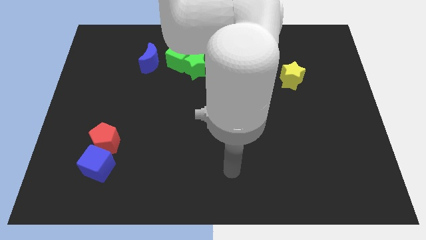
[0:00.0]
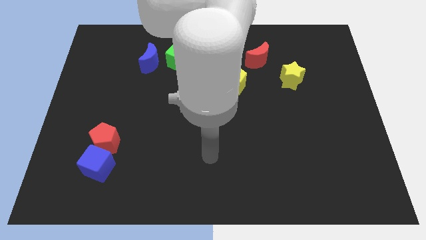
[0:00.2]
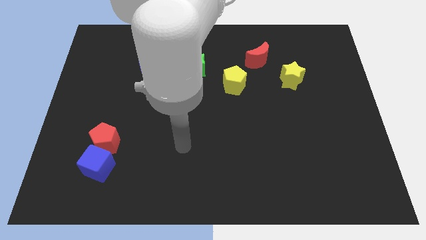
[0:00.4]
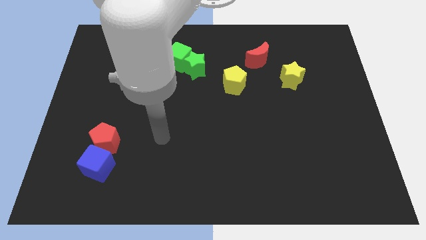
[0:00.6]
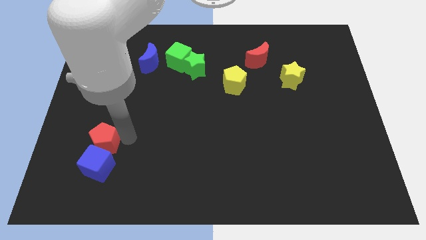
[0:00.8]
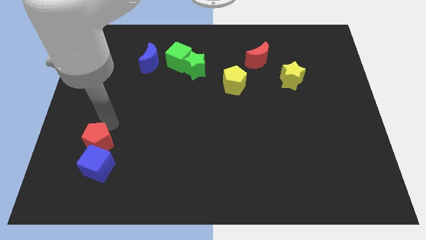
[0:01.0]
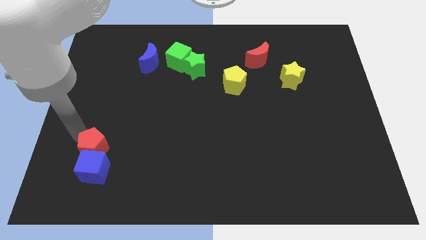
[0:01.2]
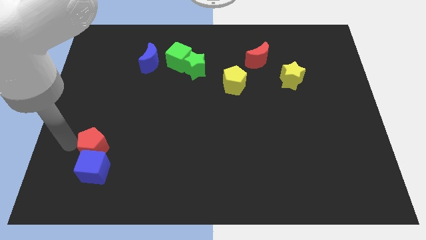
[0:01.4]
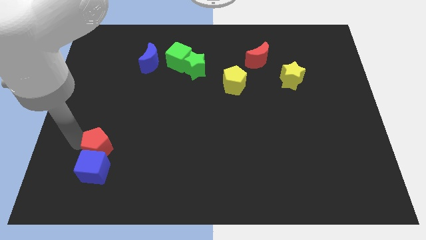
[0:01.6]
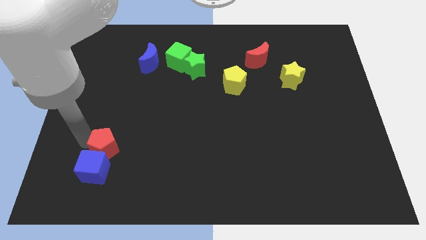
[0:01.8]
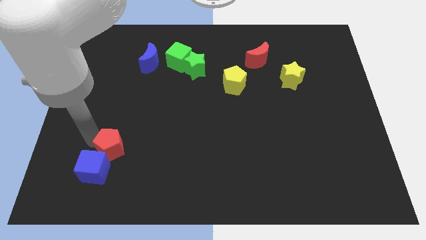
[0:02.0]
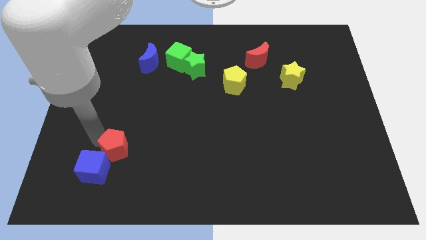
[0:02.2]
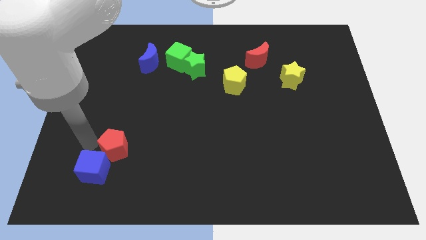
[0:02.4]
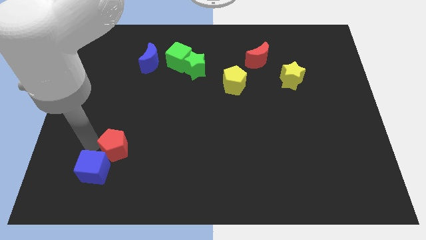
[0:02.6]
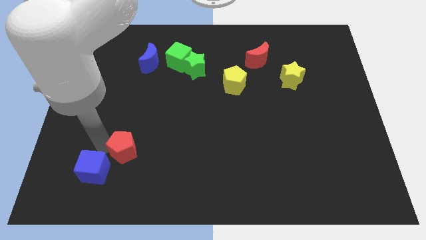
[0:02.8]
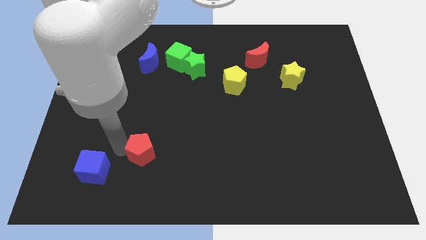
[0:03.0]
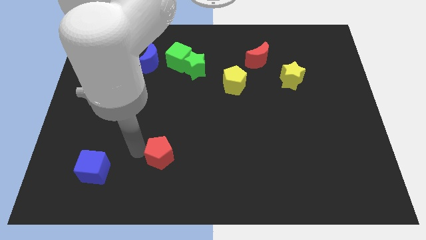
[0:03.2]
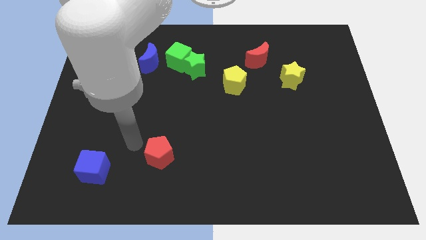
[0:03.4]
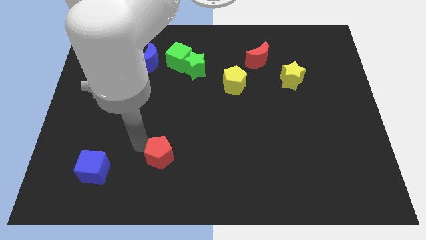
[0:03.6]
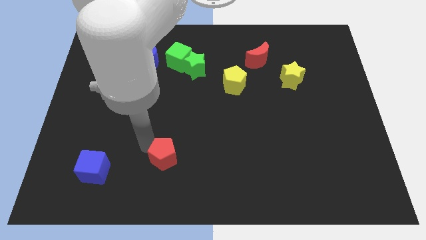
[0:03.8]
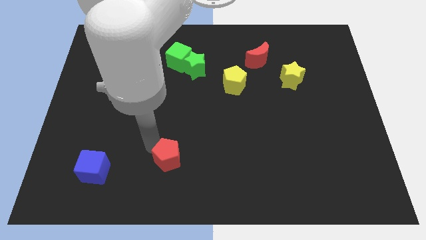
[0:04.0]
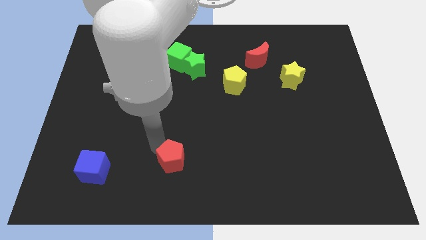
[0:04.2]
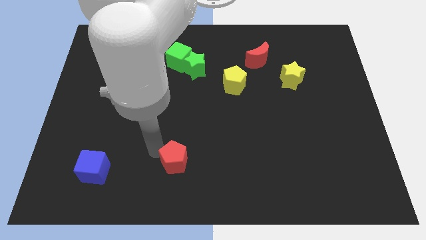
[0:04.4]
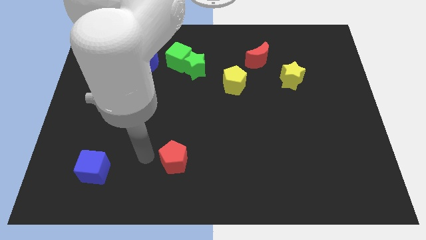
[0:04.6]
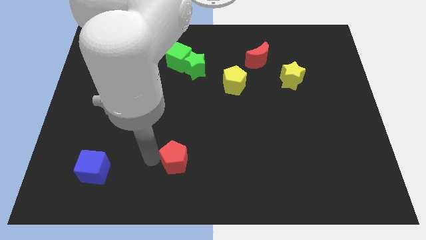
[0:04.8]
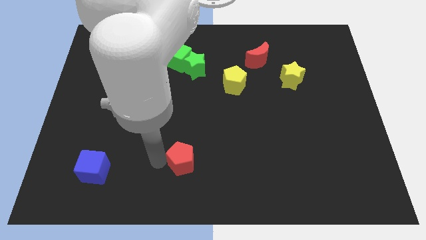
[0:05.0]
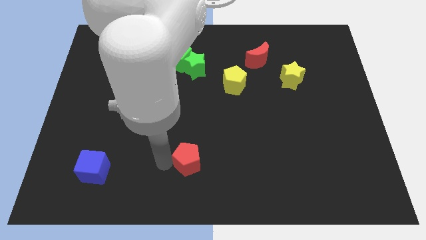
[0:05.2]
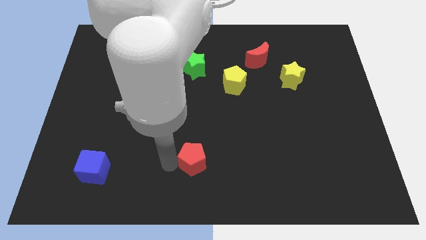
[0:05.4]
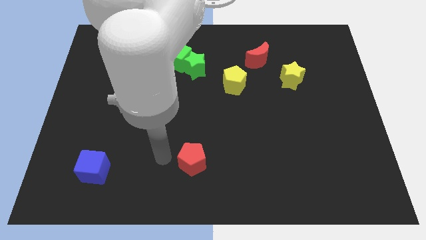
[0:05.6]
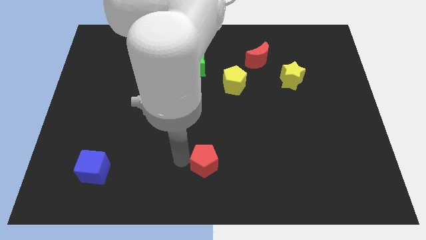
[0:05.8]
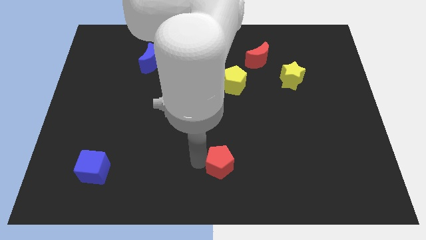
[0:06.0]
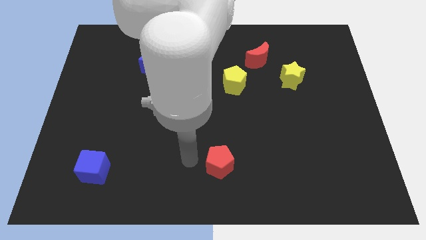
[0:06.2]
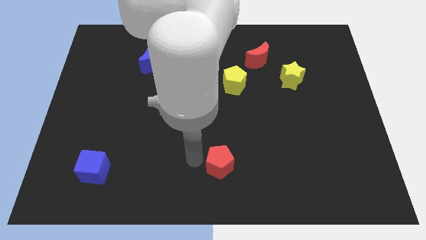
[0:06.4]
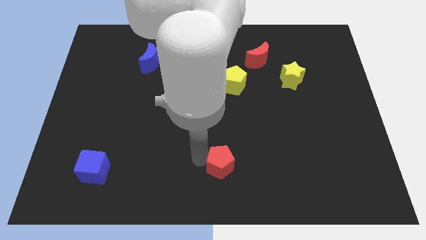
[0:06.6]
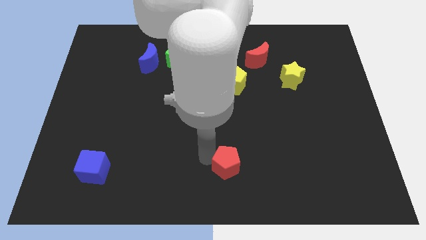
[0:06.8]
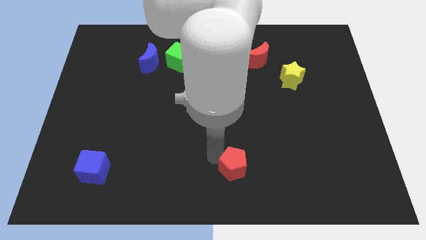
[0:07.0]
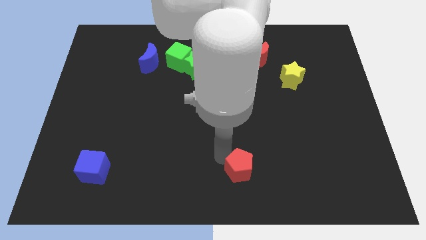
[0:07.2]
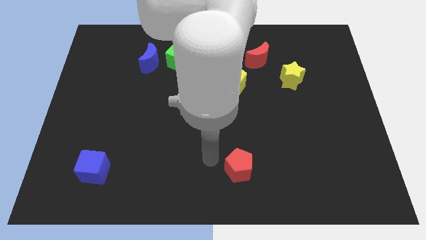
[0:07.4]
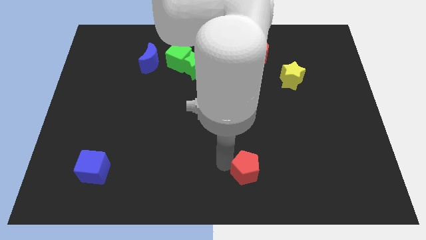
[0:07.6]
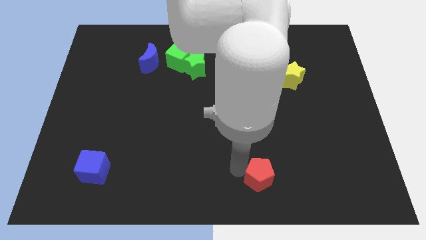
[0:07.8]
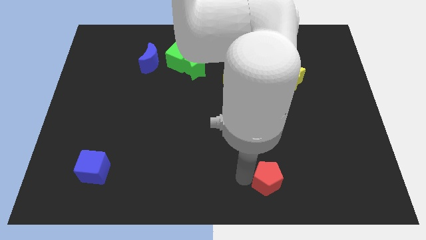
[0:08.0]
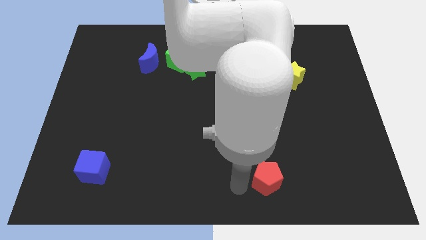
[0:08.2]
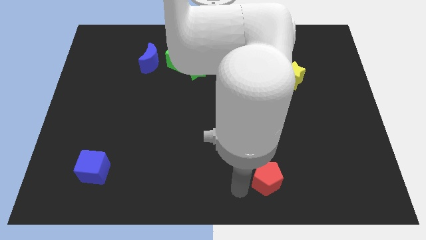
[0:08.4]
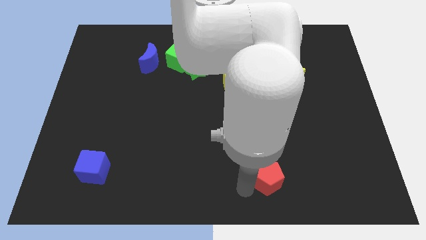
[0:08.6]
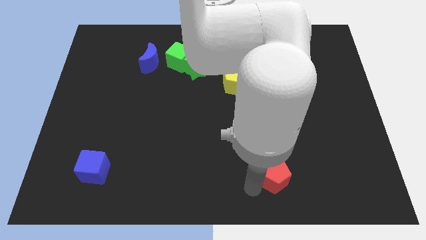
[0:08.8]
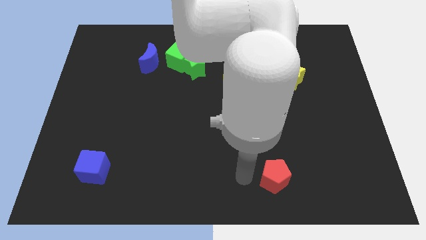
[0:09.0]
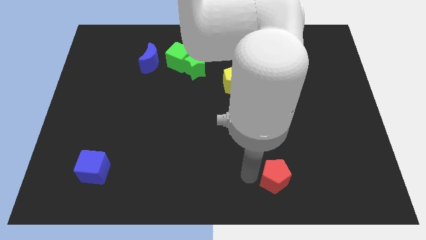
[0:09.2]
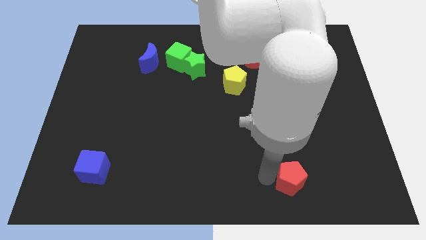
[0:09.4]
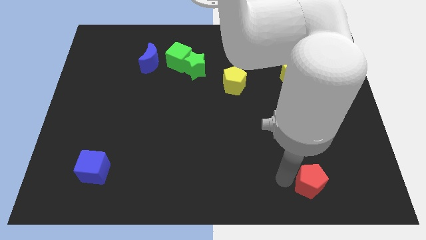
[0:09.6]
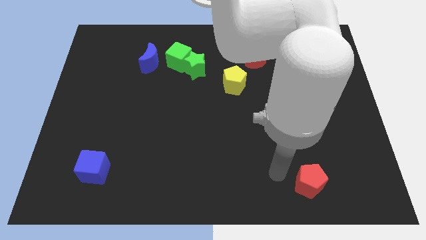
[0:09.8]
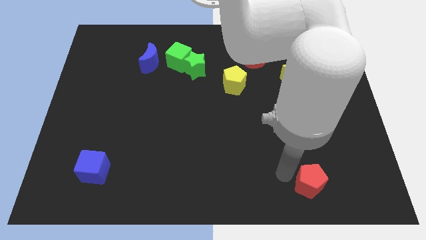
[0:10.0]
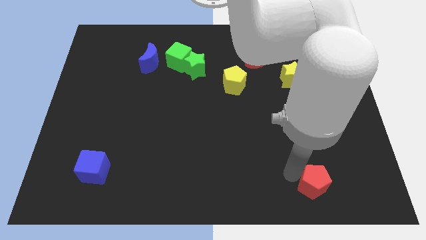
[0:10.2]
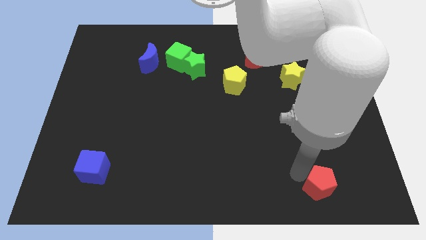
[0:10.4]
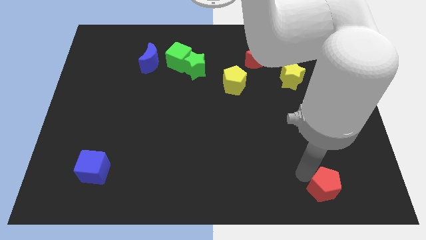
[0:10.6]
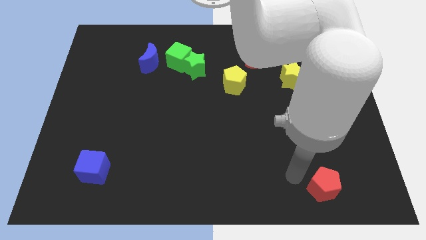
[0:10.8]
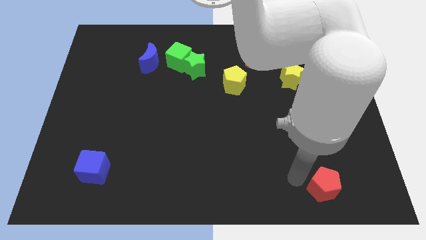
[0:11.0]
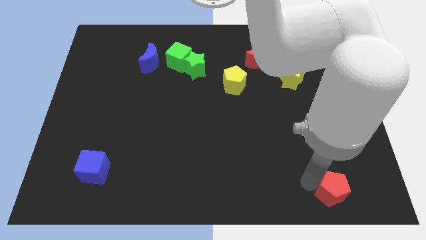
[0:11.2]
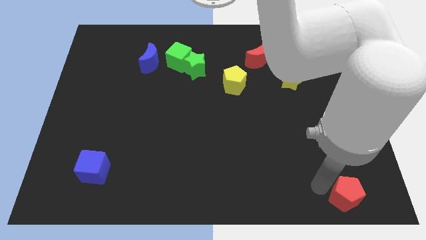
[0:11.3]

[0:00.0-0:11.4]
push the red pentagon to the bottom right of the board

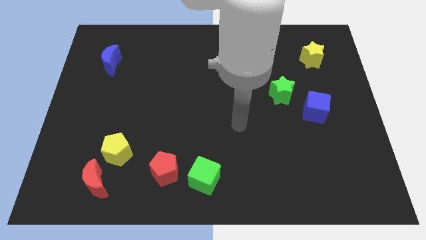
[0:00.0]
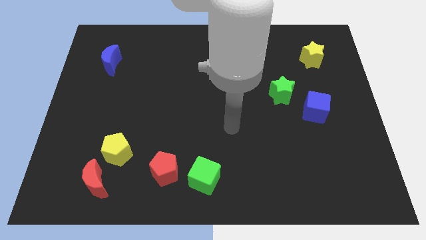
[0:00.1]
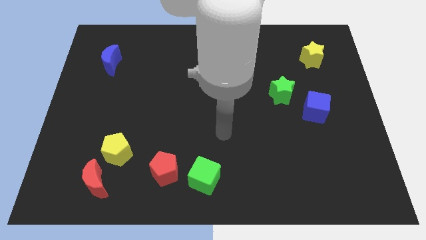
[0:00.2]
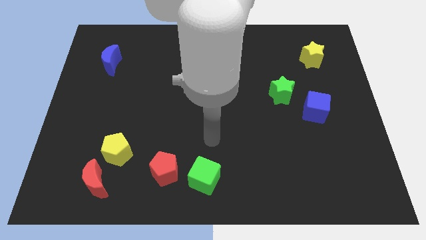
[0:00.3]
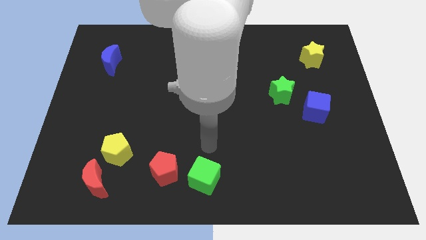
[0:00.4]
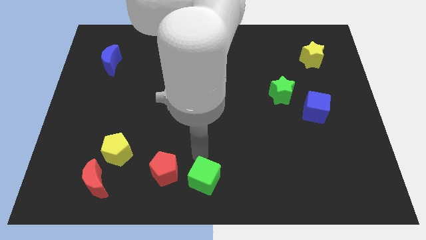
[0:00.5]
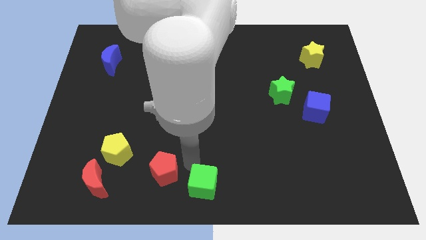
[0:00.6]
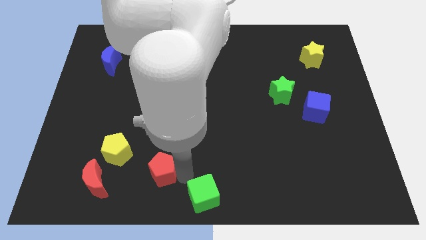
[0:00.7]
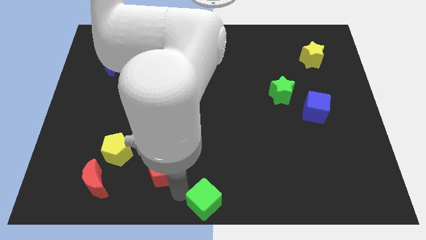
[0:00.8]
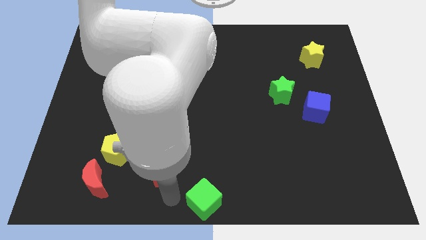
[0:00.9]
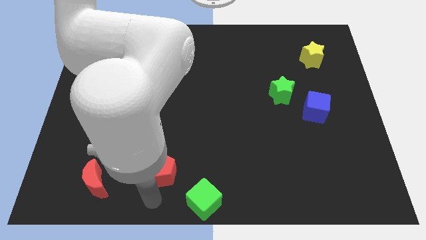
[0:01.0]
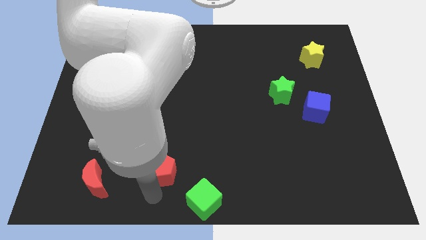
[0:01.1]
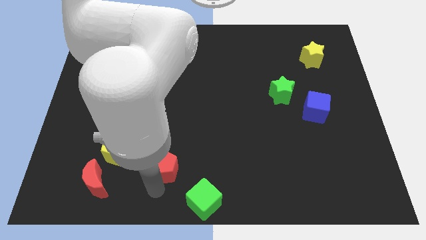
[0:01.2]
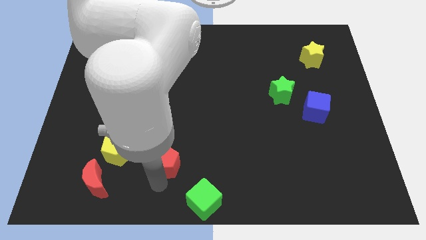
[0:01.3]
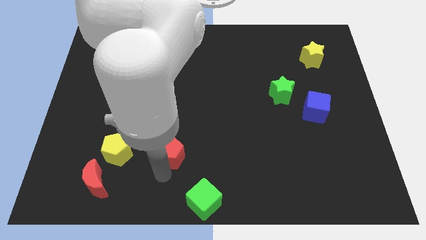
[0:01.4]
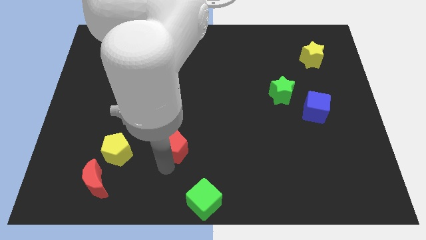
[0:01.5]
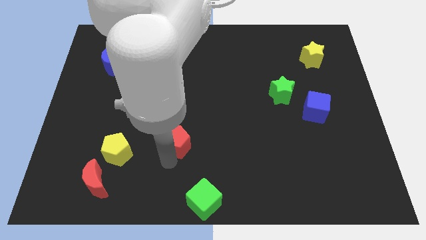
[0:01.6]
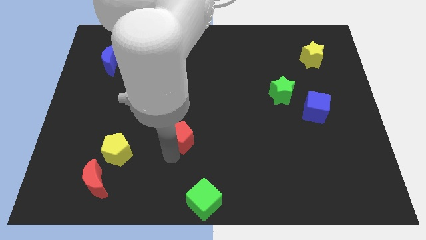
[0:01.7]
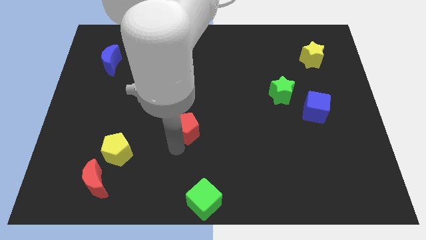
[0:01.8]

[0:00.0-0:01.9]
slide the red pentagon to the center of the board
